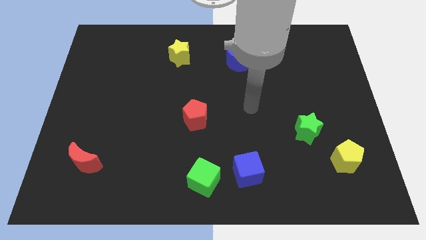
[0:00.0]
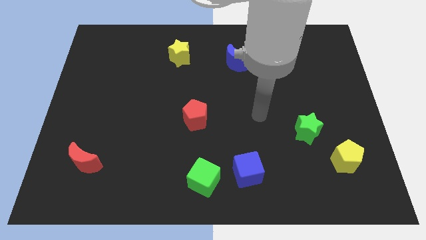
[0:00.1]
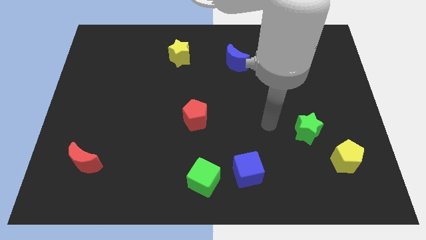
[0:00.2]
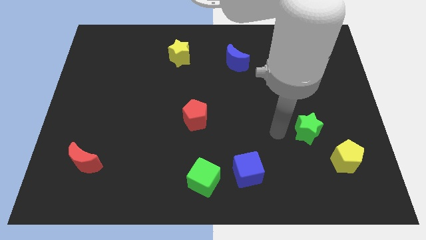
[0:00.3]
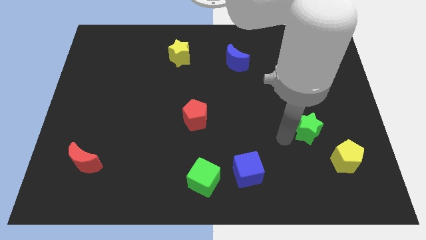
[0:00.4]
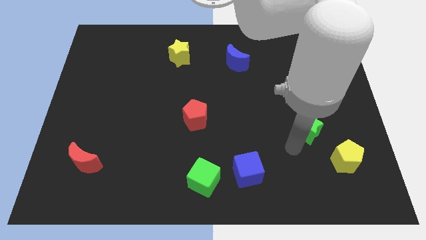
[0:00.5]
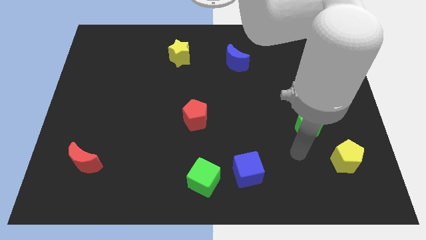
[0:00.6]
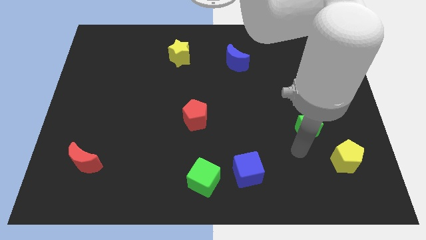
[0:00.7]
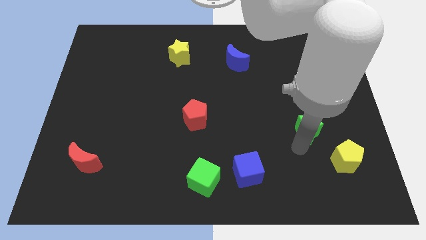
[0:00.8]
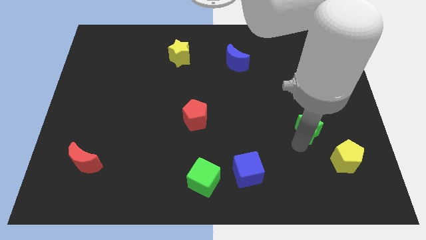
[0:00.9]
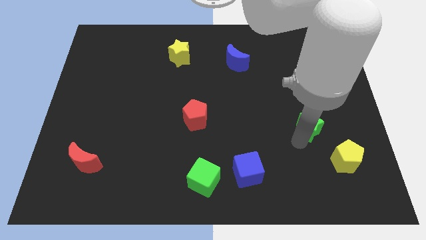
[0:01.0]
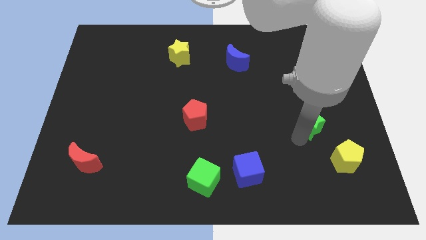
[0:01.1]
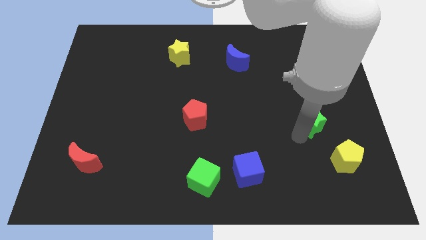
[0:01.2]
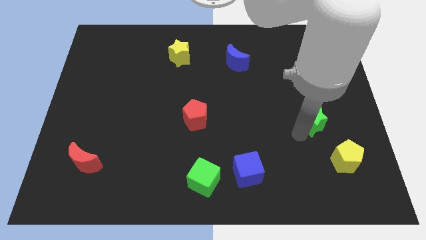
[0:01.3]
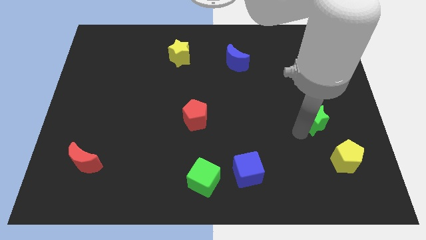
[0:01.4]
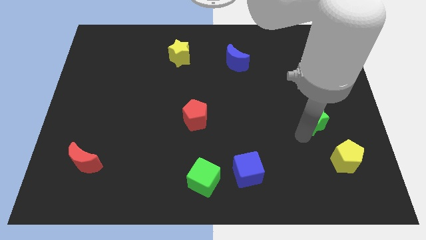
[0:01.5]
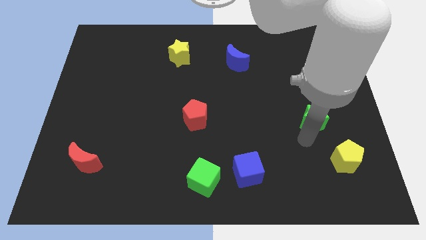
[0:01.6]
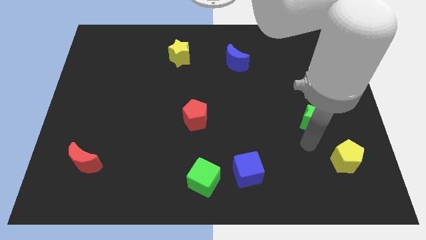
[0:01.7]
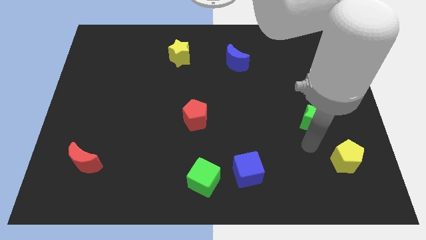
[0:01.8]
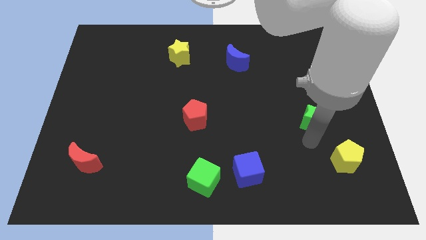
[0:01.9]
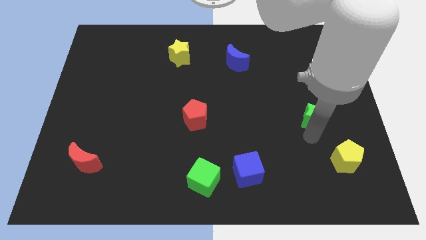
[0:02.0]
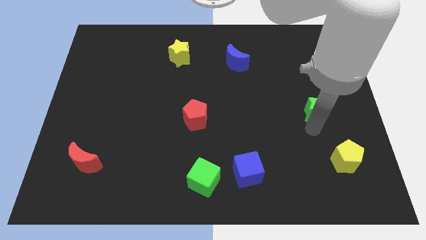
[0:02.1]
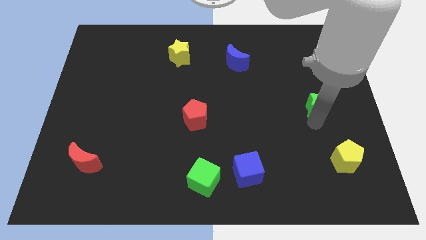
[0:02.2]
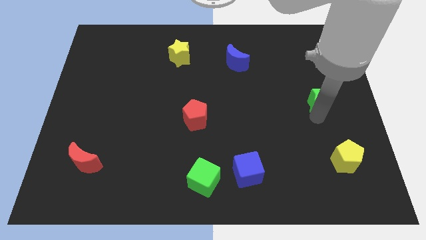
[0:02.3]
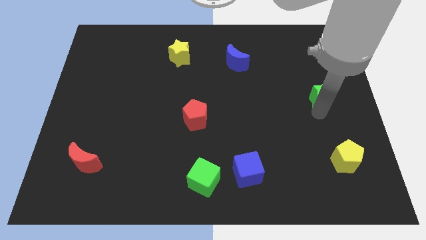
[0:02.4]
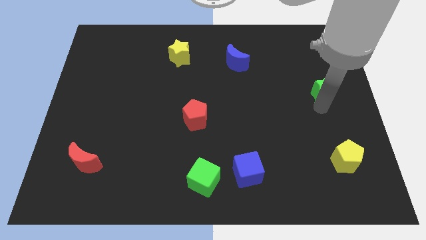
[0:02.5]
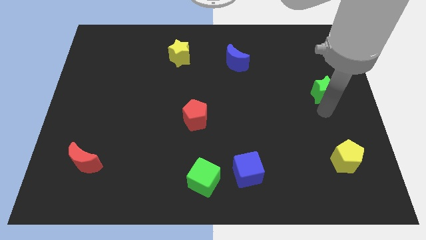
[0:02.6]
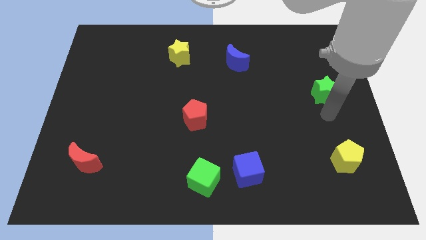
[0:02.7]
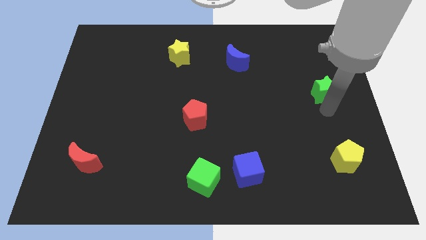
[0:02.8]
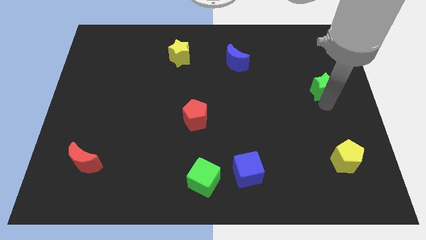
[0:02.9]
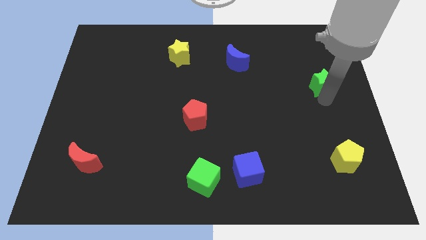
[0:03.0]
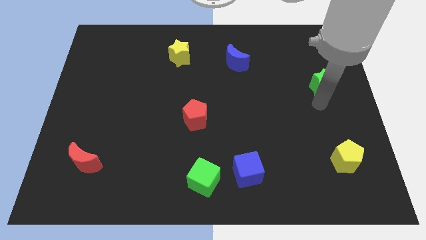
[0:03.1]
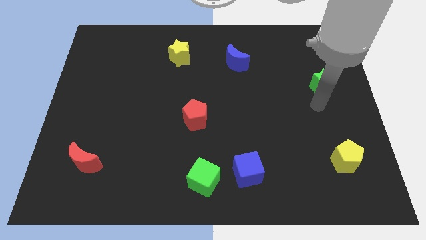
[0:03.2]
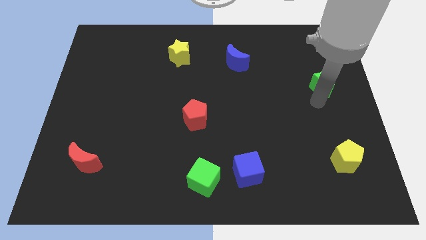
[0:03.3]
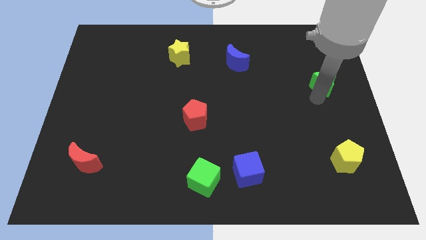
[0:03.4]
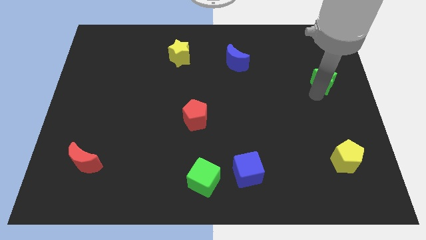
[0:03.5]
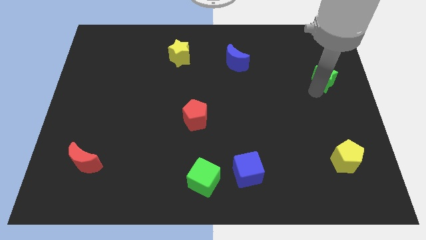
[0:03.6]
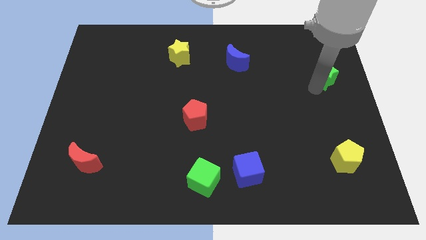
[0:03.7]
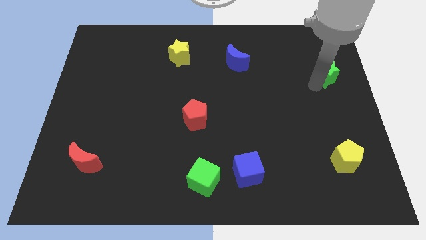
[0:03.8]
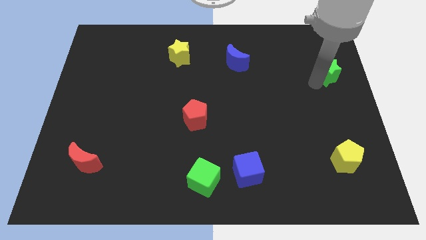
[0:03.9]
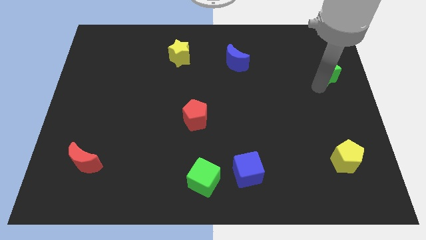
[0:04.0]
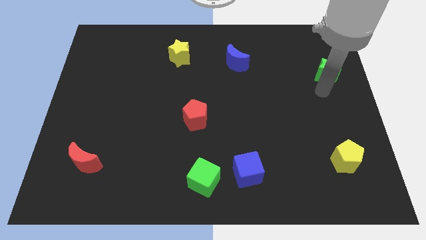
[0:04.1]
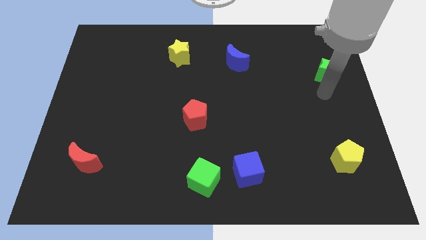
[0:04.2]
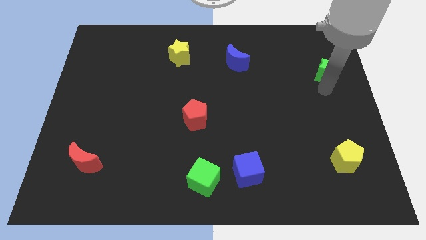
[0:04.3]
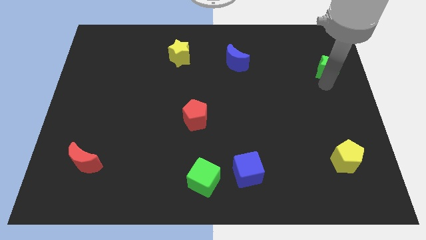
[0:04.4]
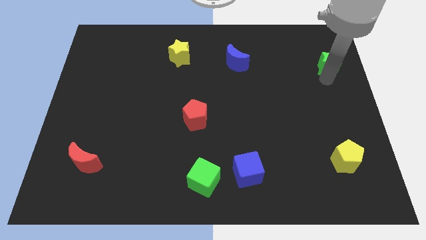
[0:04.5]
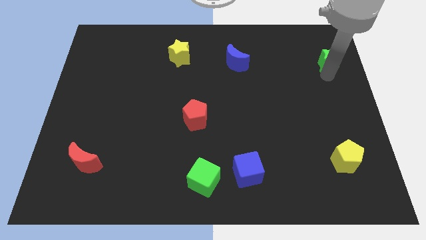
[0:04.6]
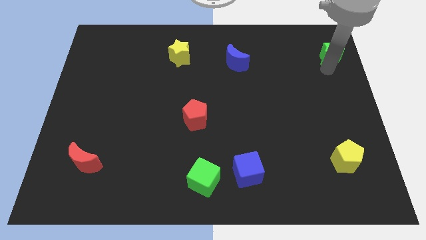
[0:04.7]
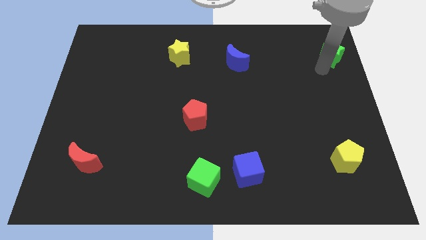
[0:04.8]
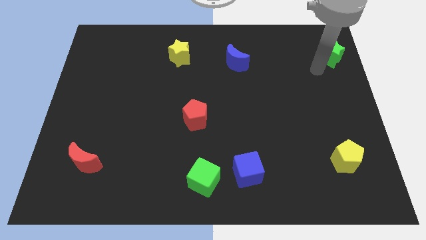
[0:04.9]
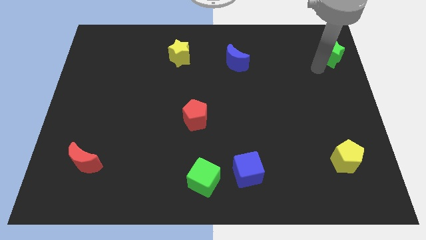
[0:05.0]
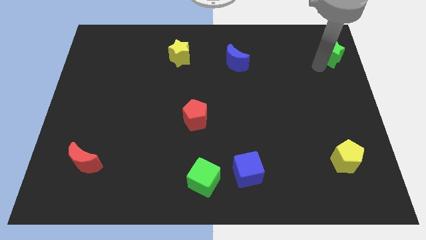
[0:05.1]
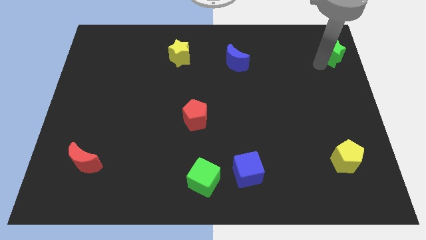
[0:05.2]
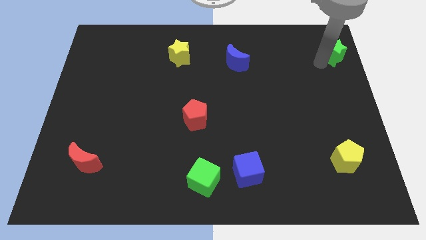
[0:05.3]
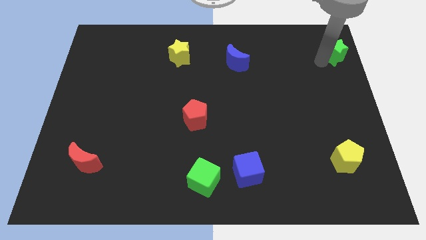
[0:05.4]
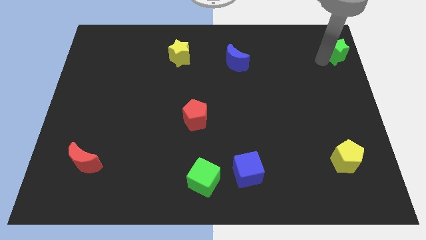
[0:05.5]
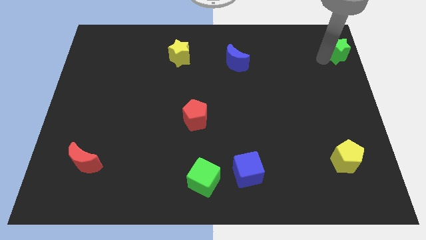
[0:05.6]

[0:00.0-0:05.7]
move the green star to the top right of the board

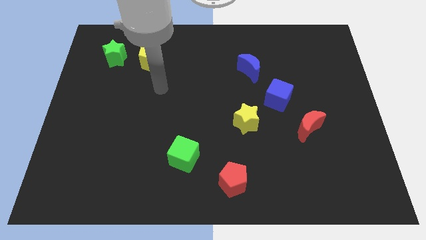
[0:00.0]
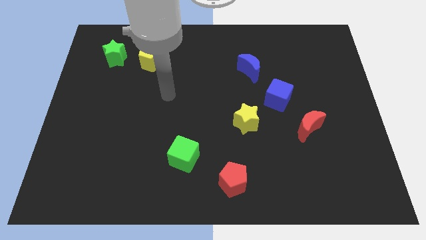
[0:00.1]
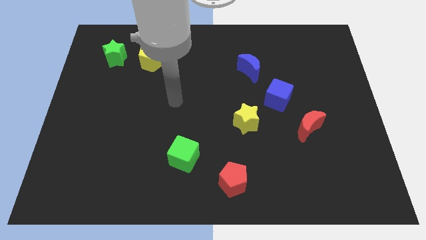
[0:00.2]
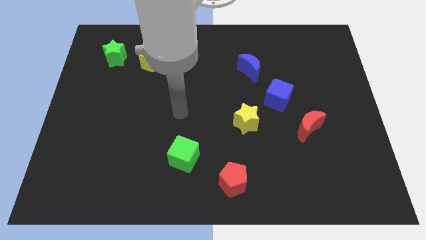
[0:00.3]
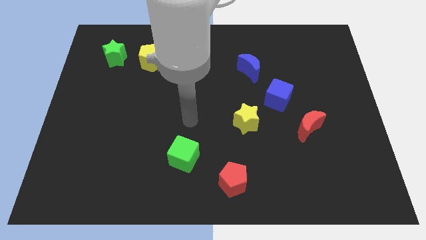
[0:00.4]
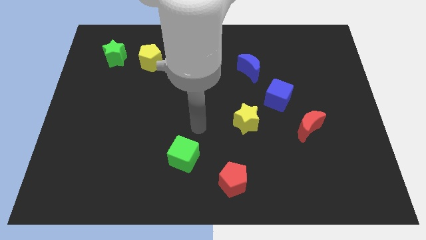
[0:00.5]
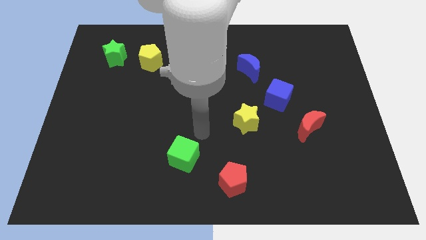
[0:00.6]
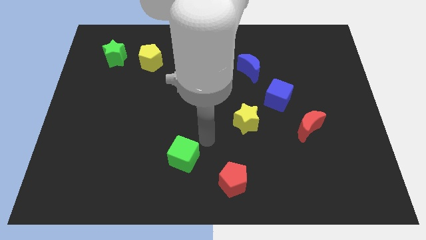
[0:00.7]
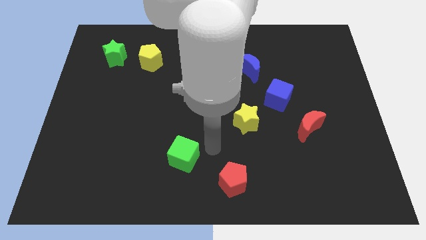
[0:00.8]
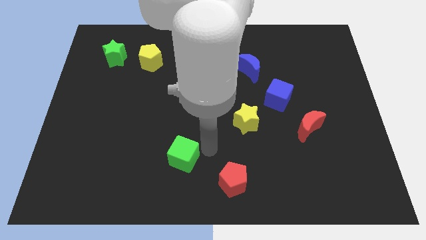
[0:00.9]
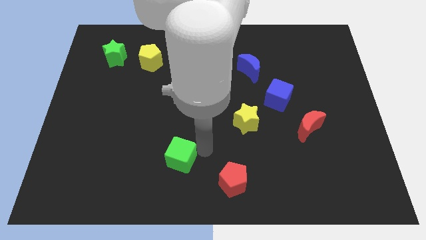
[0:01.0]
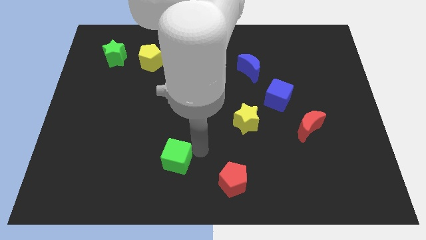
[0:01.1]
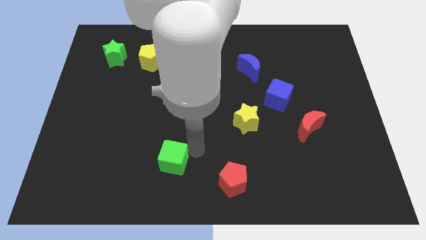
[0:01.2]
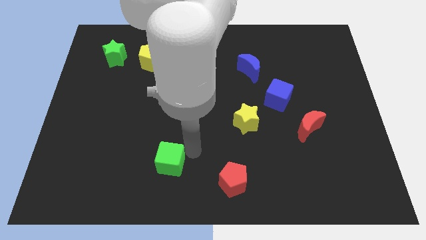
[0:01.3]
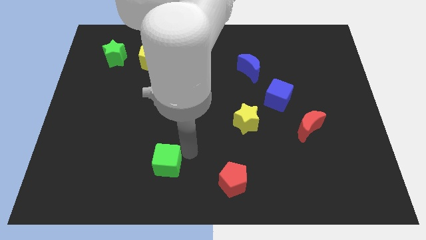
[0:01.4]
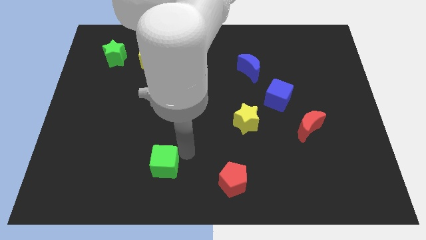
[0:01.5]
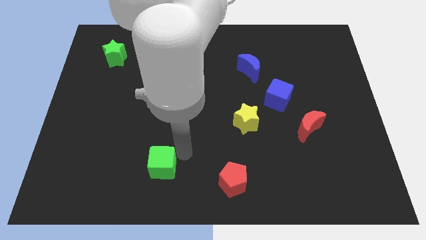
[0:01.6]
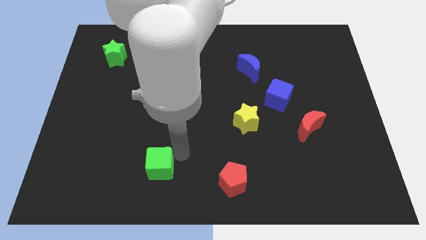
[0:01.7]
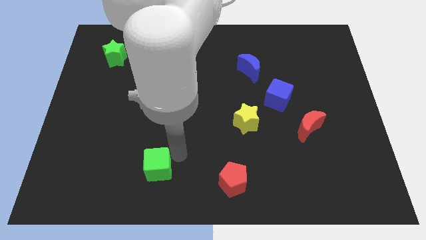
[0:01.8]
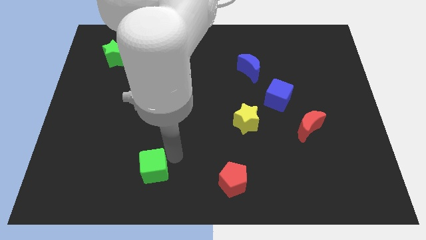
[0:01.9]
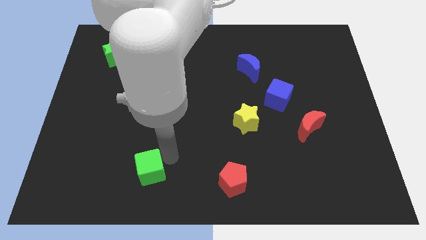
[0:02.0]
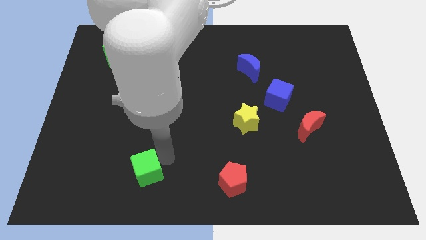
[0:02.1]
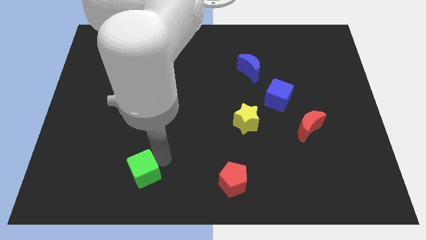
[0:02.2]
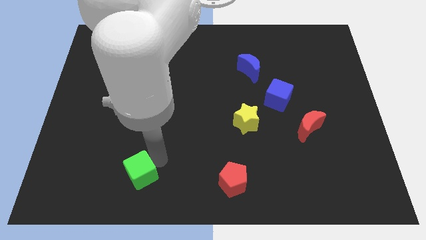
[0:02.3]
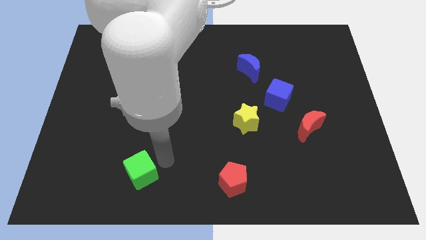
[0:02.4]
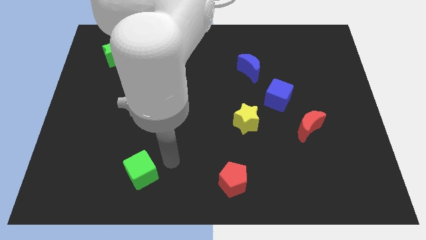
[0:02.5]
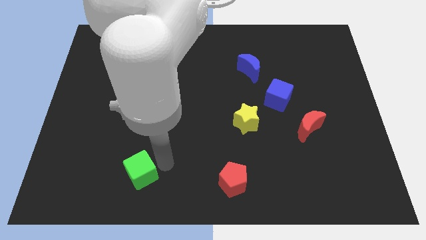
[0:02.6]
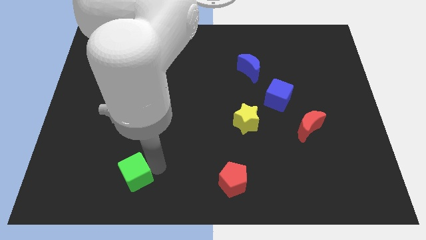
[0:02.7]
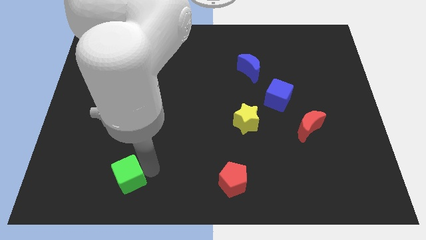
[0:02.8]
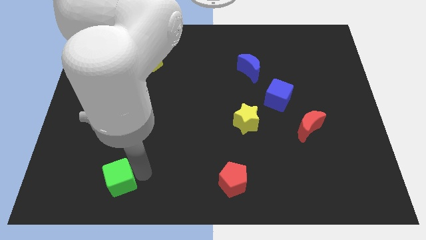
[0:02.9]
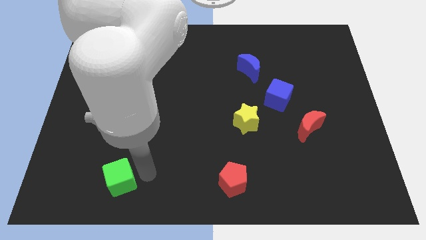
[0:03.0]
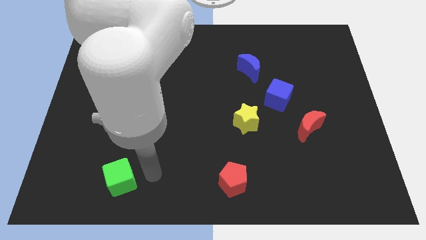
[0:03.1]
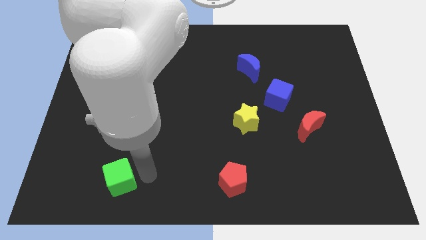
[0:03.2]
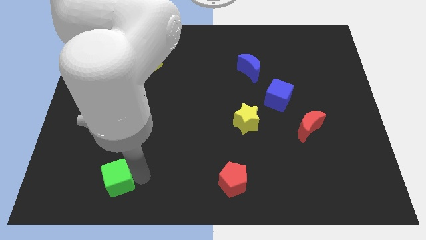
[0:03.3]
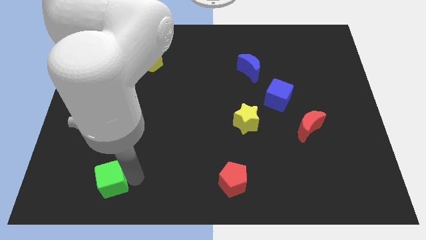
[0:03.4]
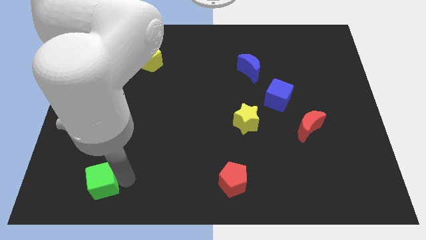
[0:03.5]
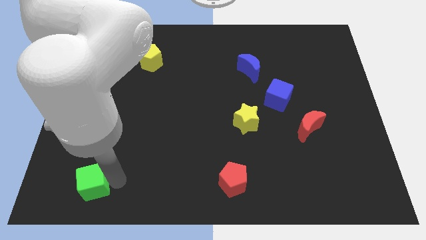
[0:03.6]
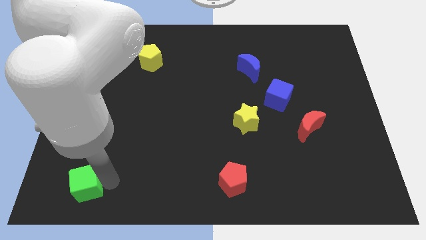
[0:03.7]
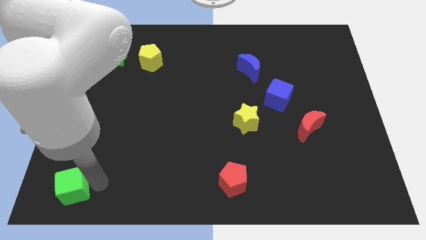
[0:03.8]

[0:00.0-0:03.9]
put the green cube to the bottom left
